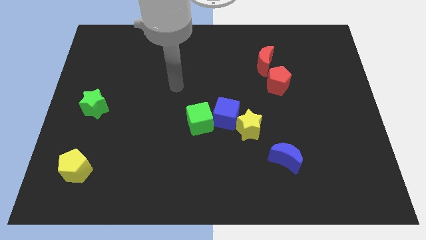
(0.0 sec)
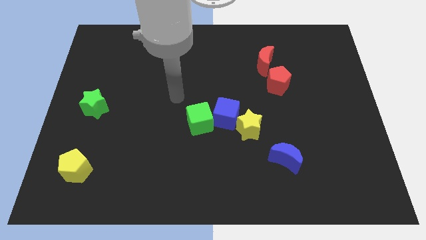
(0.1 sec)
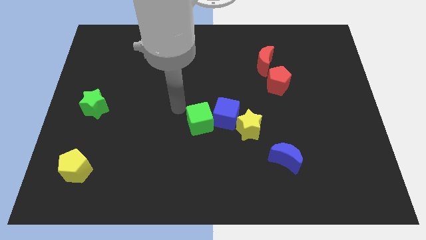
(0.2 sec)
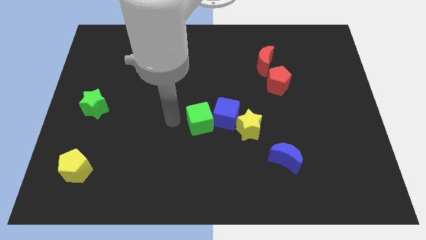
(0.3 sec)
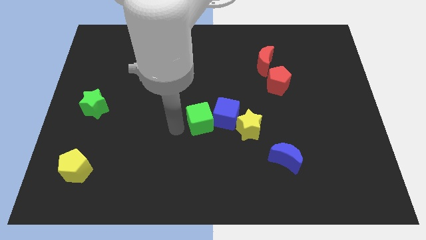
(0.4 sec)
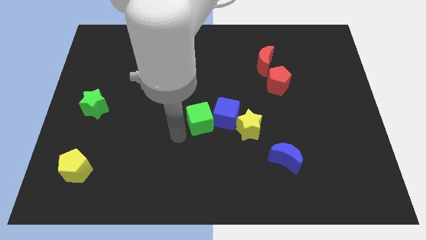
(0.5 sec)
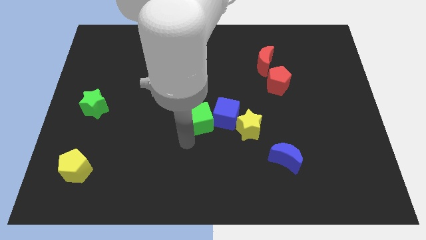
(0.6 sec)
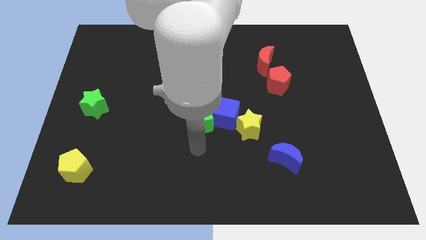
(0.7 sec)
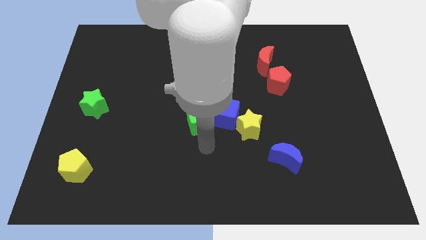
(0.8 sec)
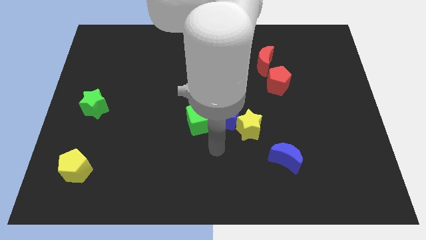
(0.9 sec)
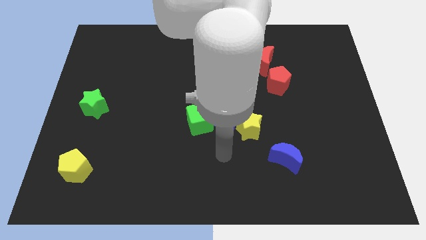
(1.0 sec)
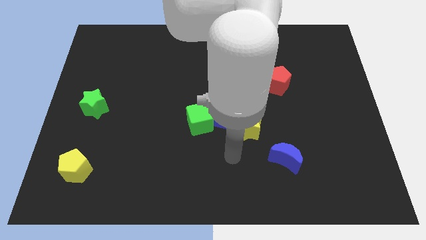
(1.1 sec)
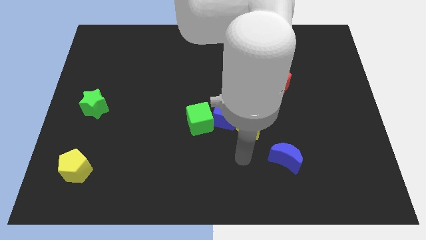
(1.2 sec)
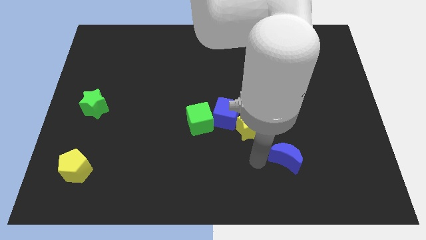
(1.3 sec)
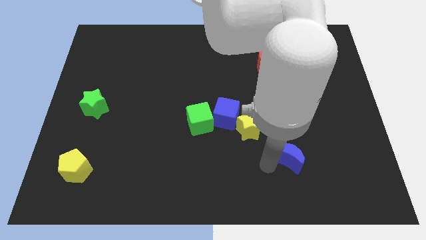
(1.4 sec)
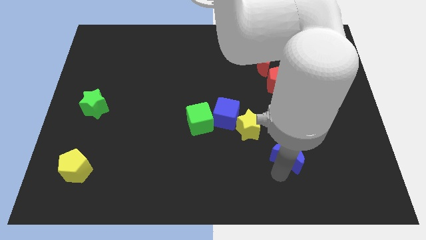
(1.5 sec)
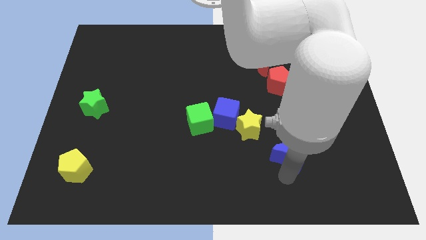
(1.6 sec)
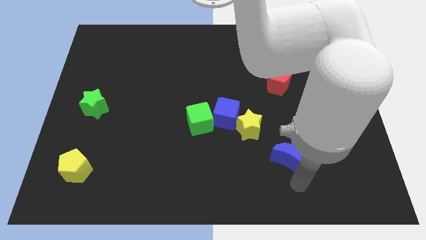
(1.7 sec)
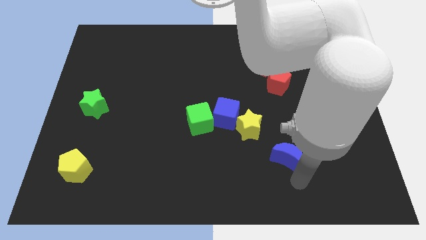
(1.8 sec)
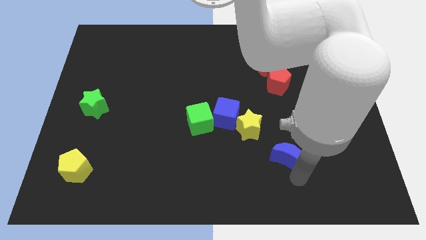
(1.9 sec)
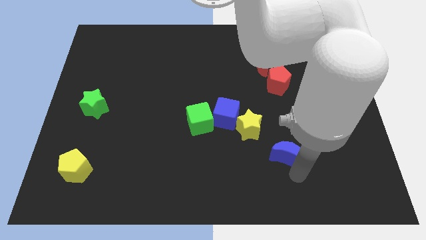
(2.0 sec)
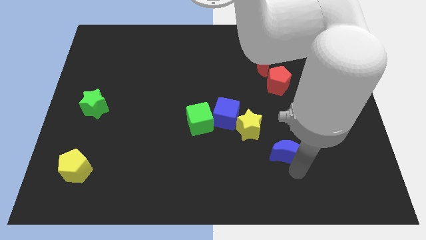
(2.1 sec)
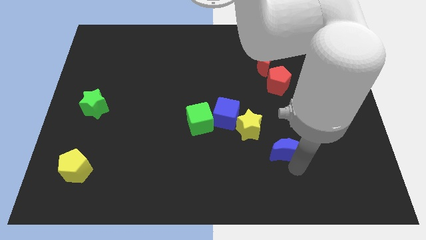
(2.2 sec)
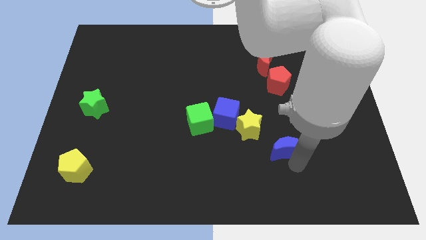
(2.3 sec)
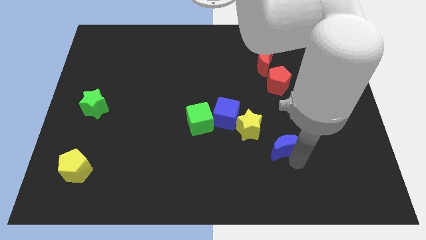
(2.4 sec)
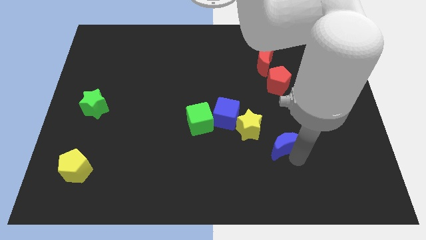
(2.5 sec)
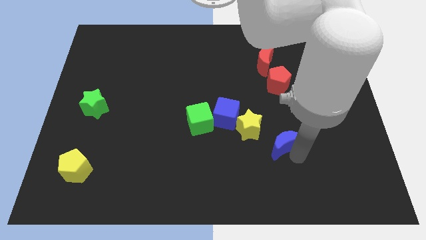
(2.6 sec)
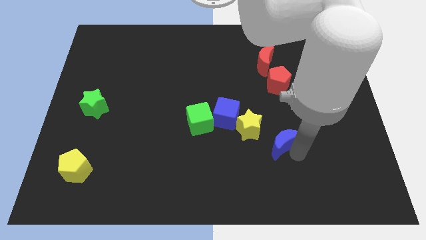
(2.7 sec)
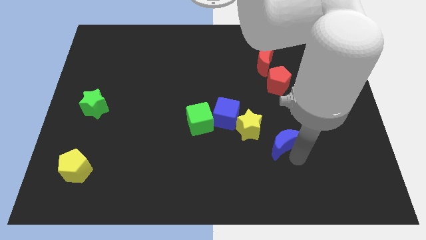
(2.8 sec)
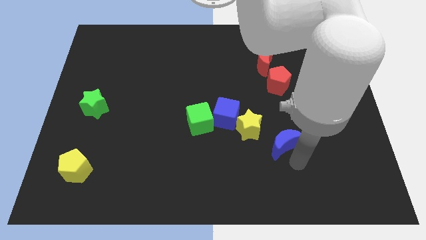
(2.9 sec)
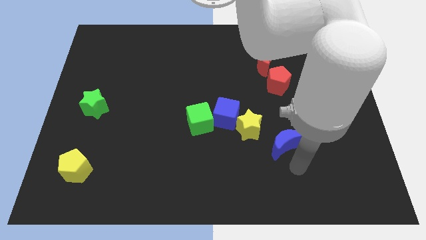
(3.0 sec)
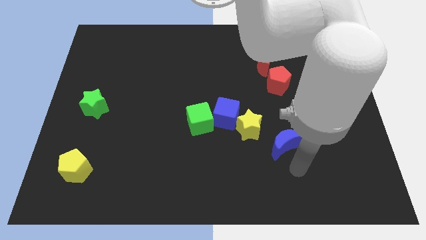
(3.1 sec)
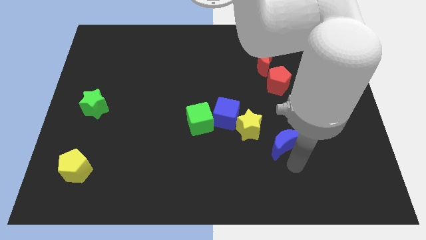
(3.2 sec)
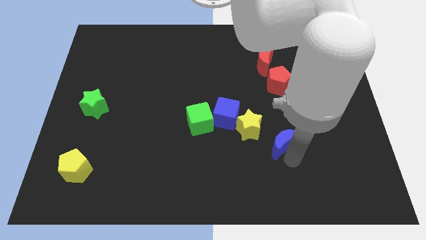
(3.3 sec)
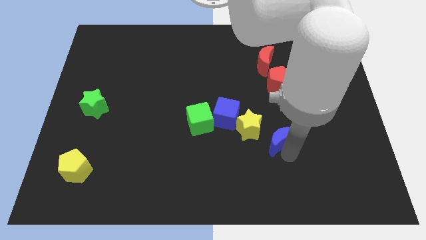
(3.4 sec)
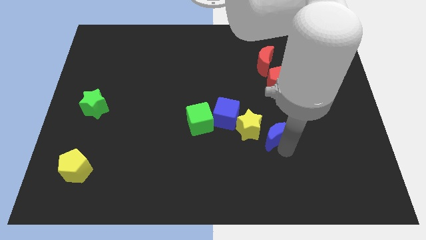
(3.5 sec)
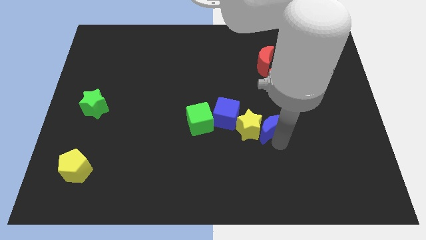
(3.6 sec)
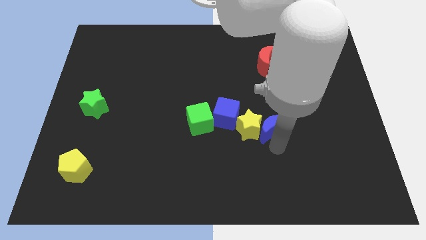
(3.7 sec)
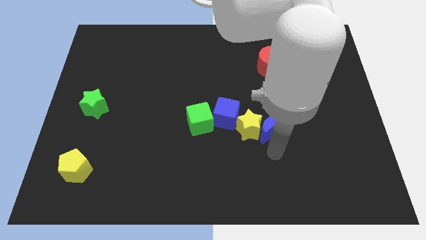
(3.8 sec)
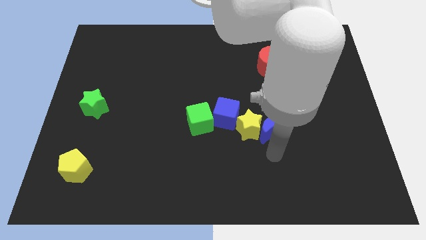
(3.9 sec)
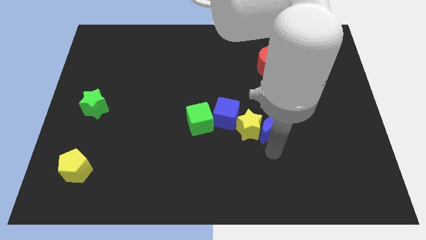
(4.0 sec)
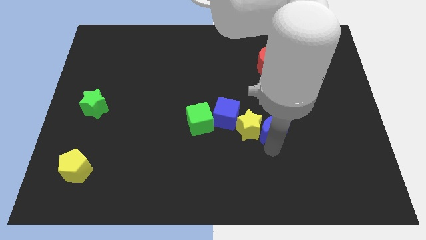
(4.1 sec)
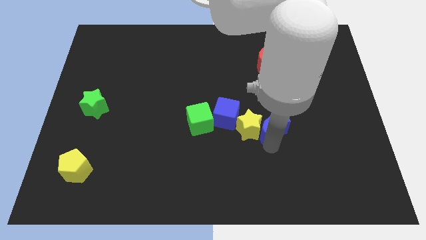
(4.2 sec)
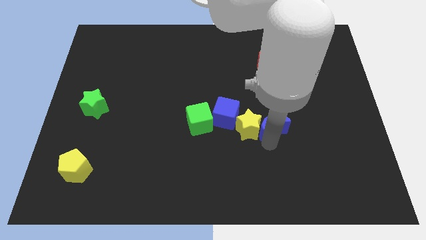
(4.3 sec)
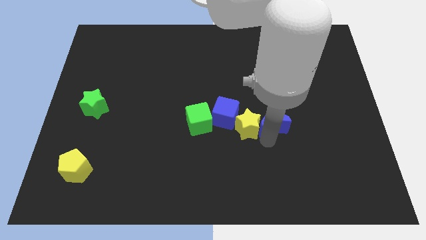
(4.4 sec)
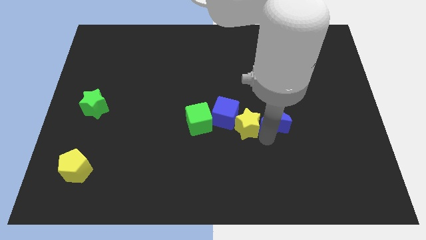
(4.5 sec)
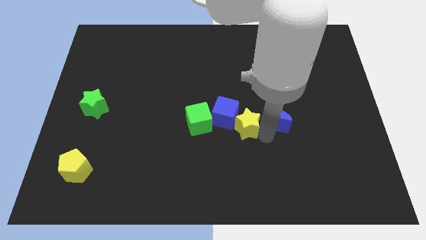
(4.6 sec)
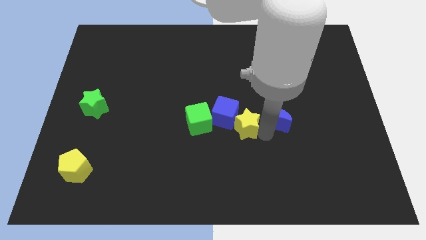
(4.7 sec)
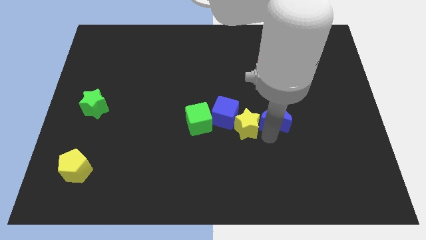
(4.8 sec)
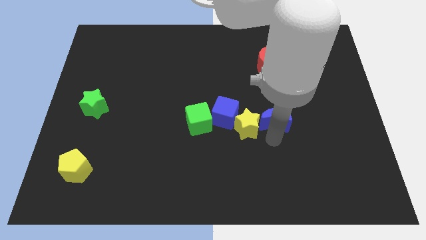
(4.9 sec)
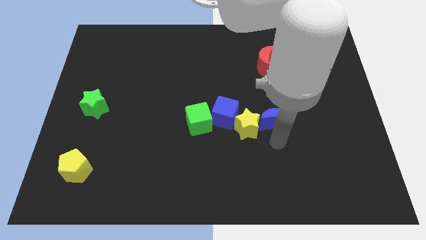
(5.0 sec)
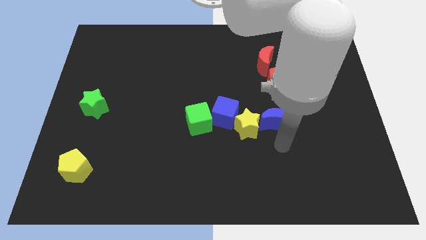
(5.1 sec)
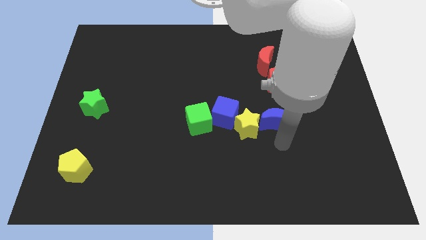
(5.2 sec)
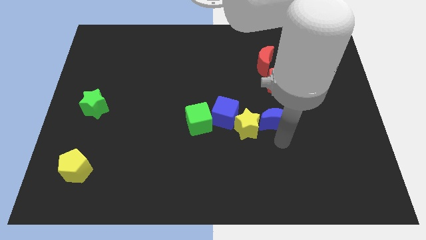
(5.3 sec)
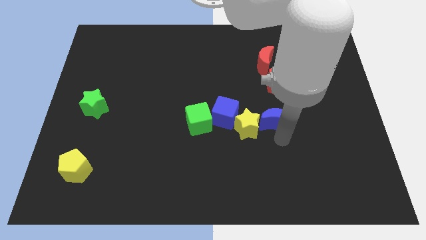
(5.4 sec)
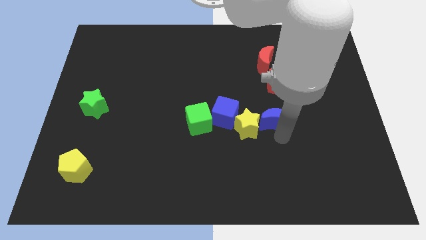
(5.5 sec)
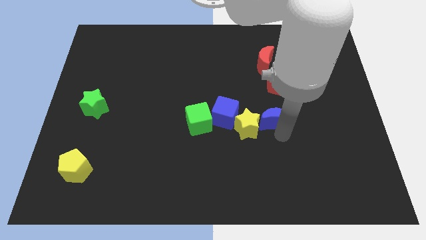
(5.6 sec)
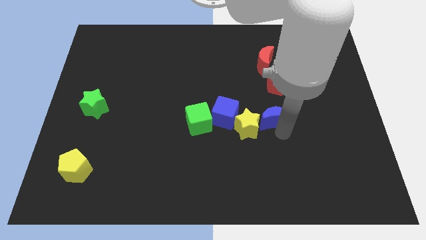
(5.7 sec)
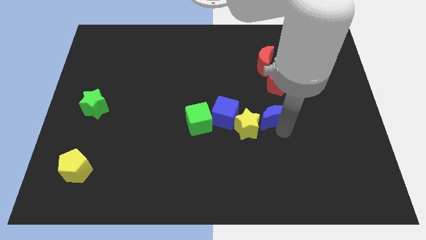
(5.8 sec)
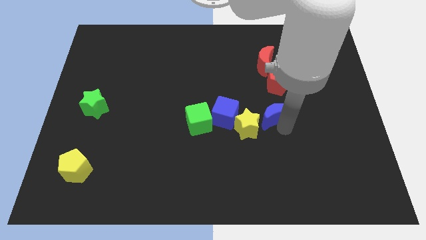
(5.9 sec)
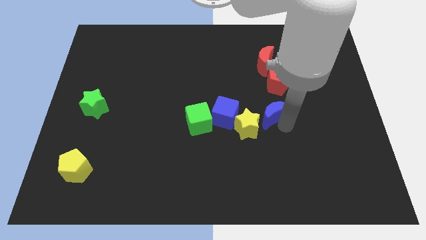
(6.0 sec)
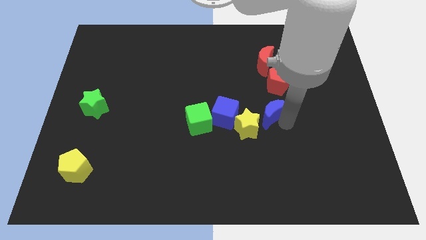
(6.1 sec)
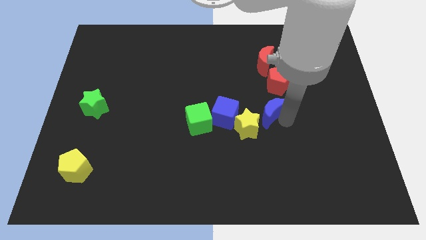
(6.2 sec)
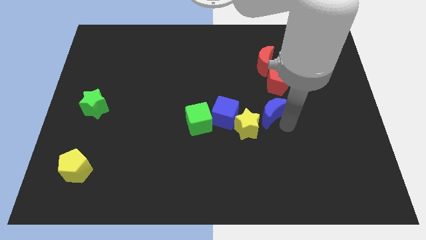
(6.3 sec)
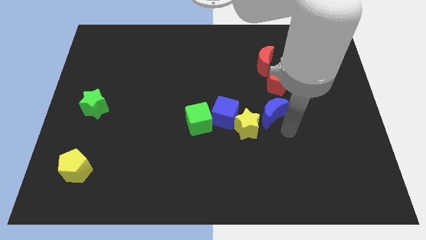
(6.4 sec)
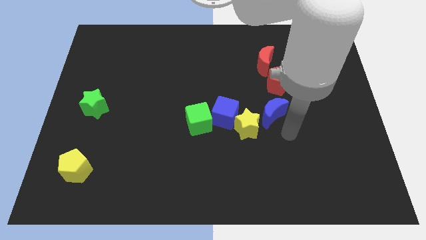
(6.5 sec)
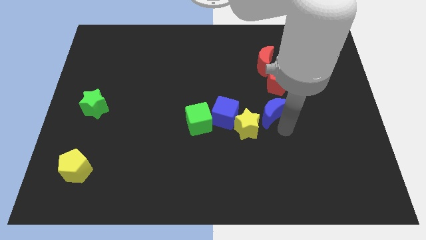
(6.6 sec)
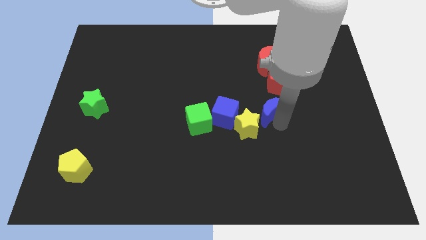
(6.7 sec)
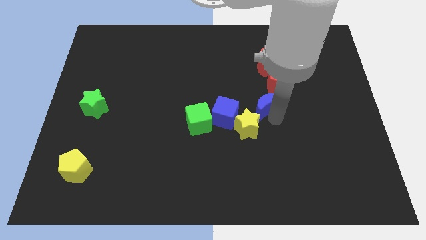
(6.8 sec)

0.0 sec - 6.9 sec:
push the blue moon to the middle of the board
